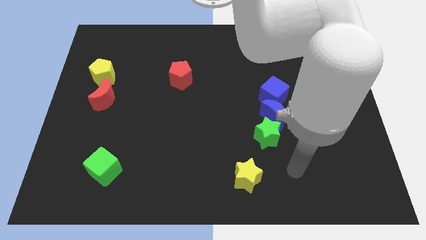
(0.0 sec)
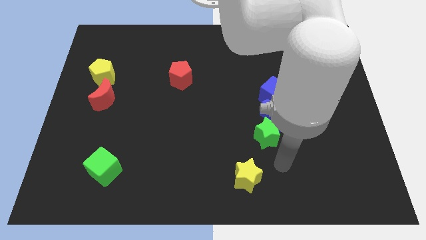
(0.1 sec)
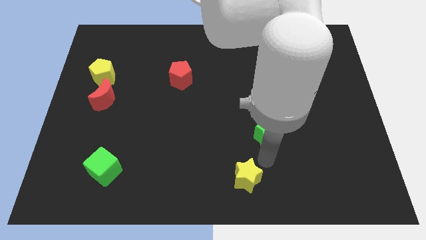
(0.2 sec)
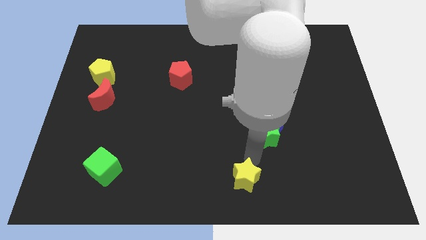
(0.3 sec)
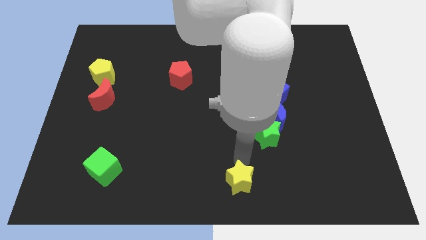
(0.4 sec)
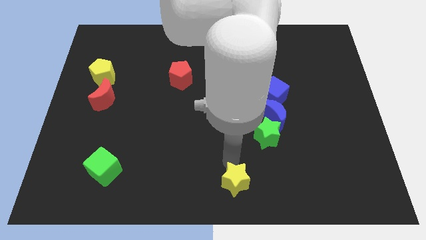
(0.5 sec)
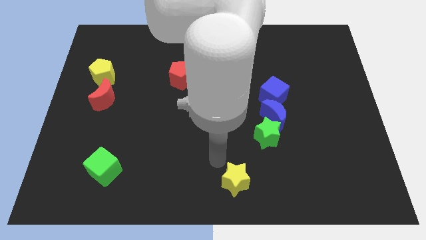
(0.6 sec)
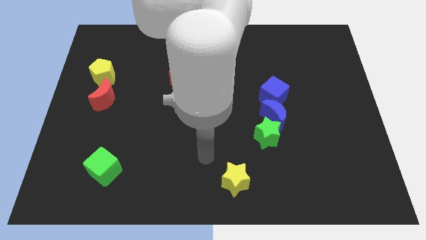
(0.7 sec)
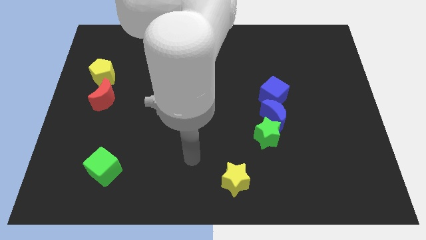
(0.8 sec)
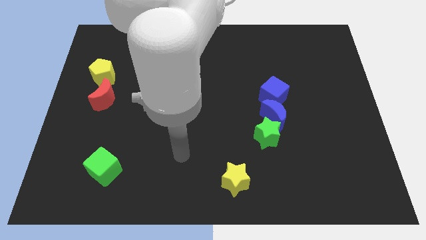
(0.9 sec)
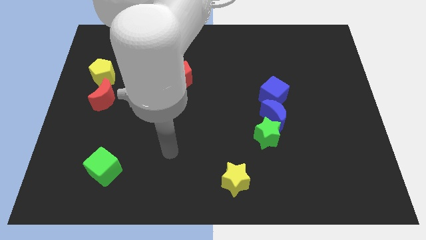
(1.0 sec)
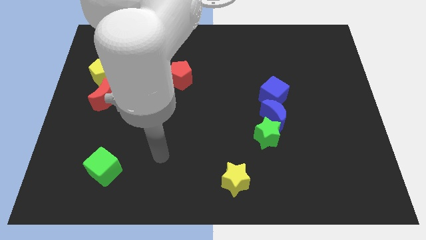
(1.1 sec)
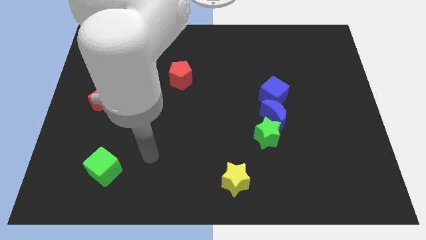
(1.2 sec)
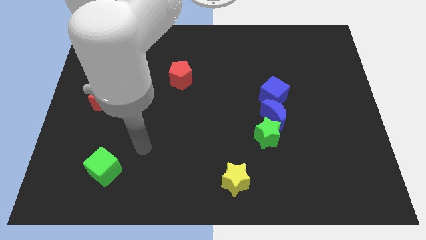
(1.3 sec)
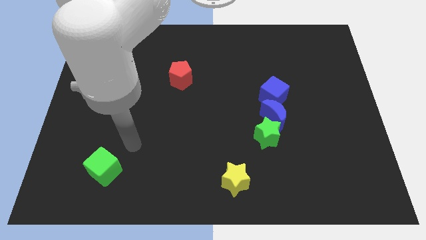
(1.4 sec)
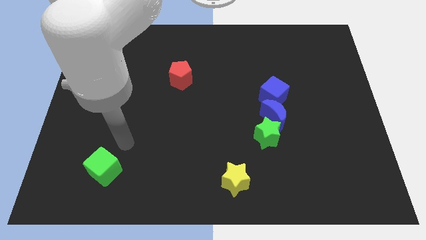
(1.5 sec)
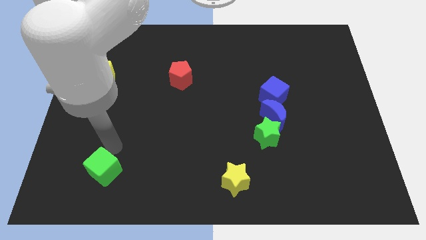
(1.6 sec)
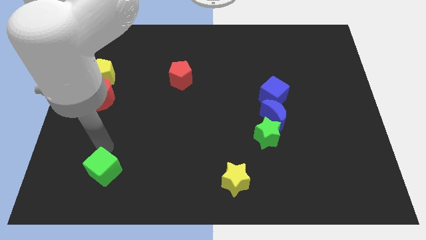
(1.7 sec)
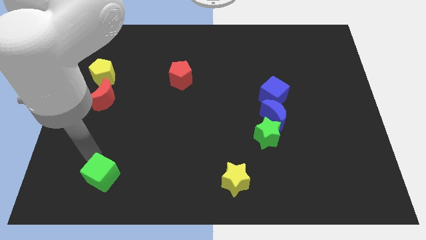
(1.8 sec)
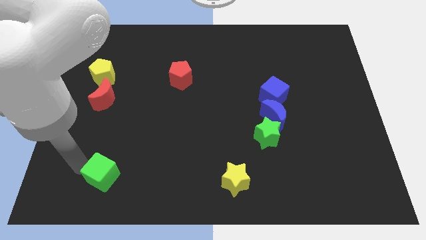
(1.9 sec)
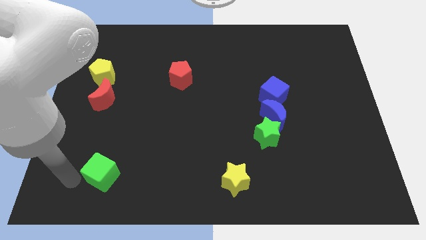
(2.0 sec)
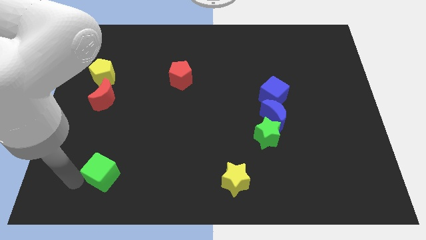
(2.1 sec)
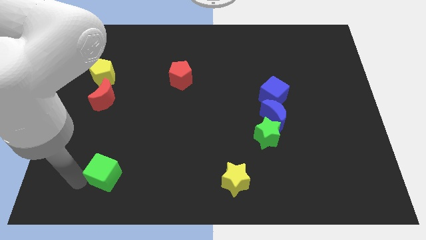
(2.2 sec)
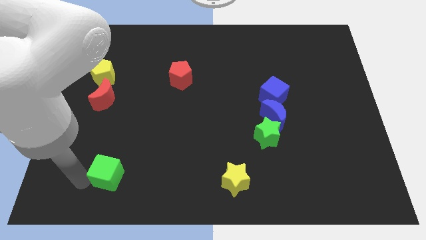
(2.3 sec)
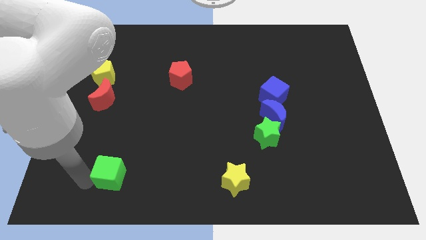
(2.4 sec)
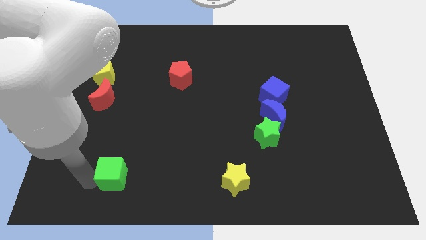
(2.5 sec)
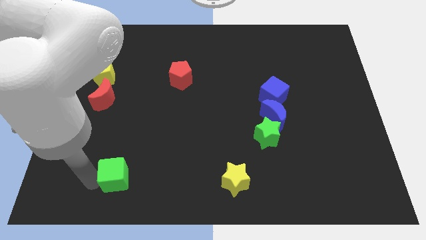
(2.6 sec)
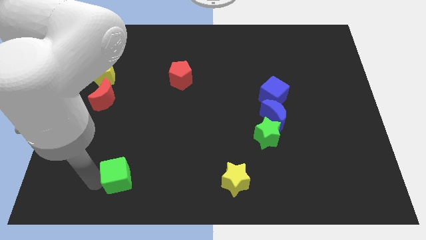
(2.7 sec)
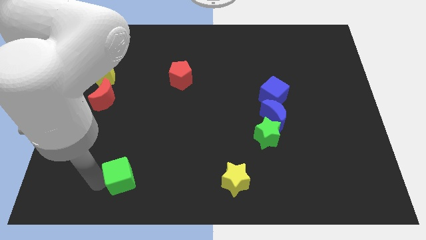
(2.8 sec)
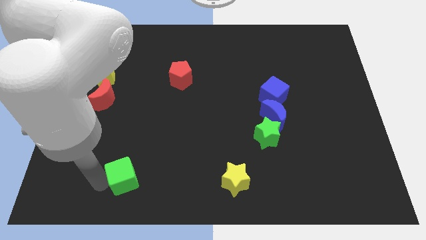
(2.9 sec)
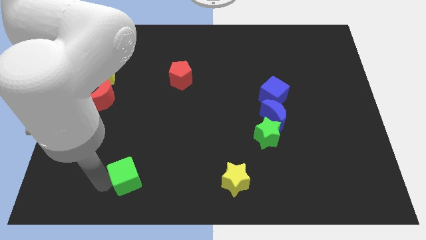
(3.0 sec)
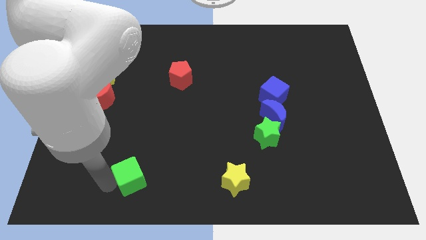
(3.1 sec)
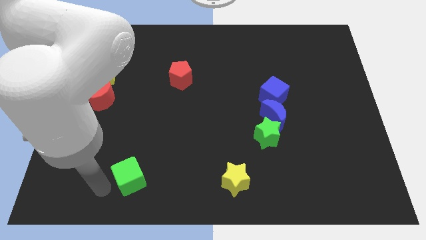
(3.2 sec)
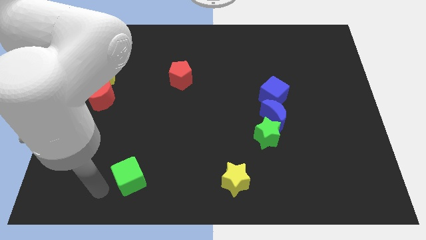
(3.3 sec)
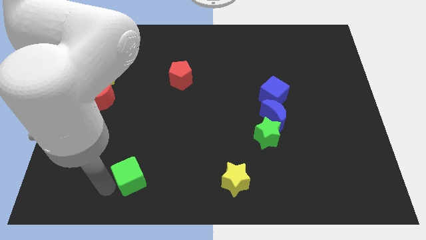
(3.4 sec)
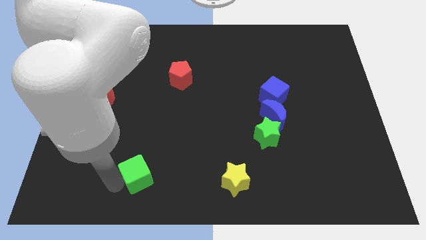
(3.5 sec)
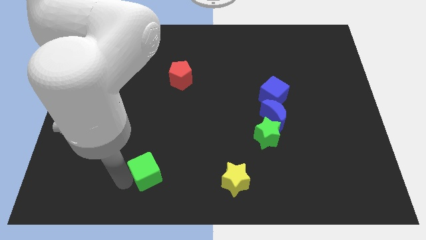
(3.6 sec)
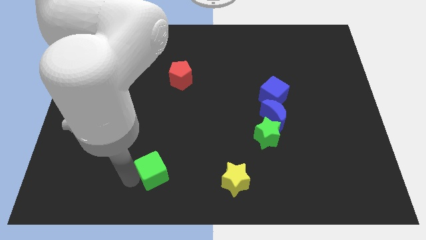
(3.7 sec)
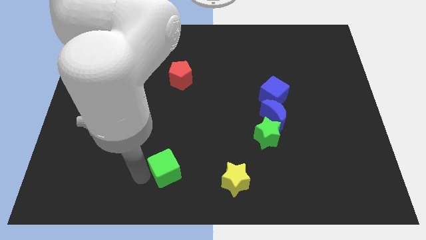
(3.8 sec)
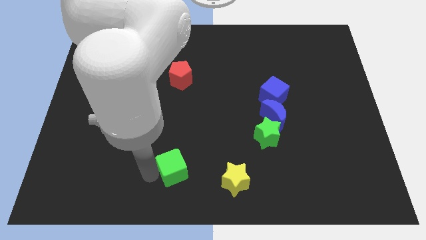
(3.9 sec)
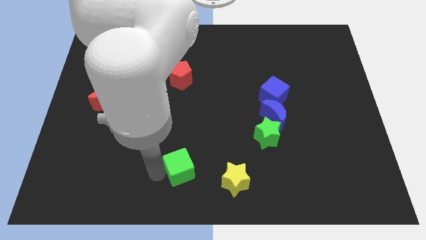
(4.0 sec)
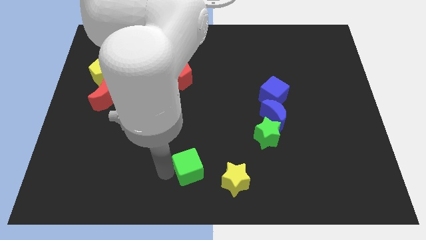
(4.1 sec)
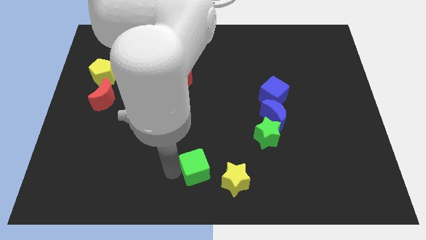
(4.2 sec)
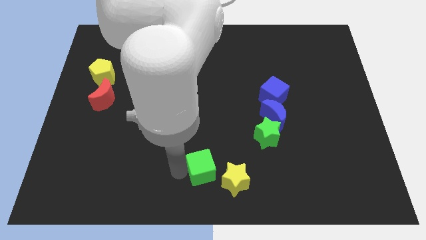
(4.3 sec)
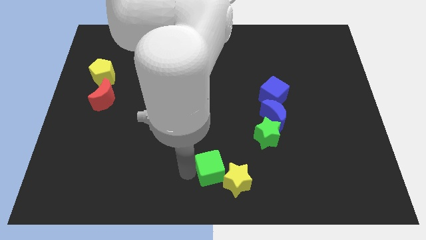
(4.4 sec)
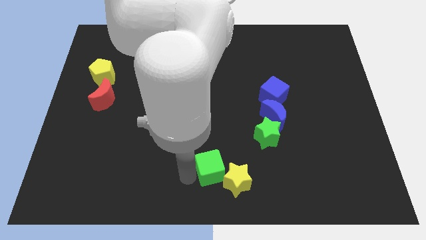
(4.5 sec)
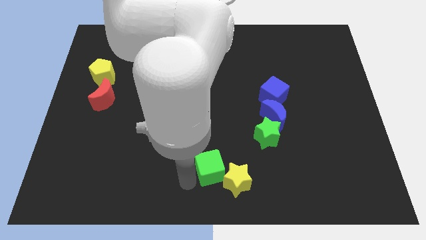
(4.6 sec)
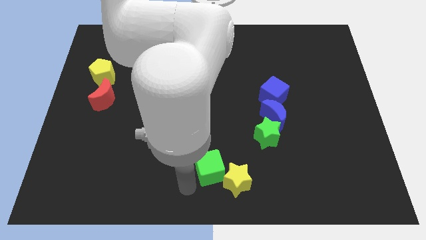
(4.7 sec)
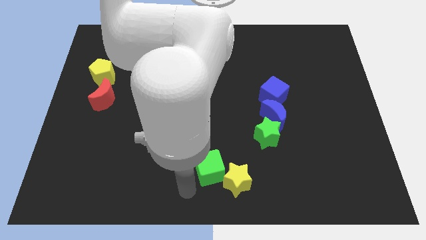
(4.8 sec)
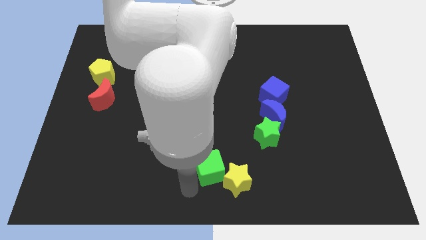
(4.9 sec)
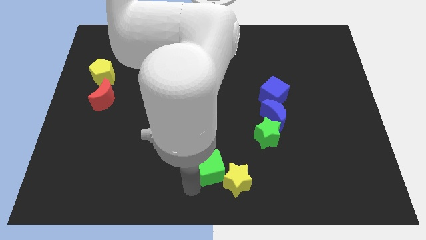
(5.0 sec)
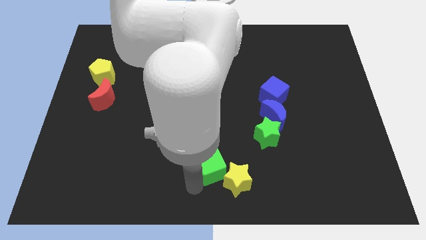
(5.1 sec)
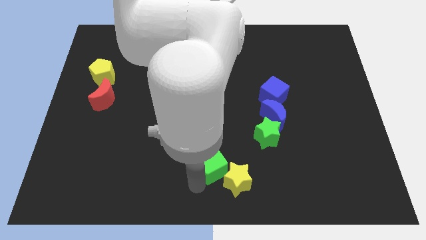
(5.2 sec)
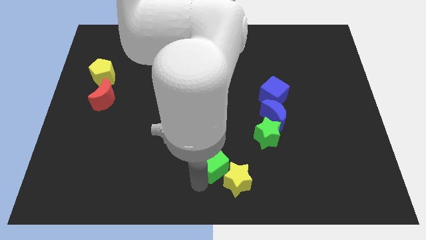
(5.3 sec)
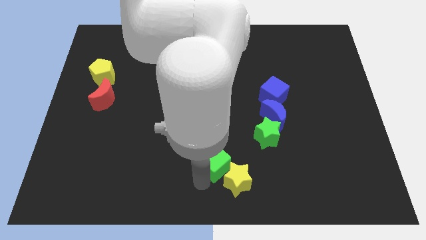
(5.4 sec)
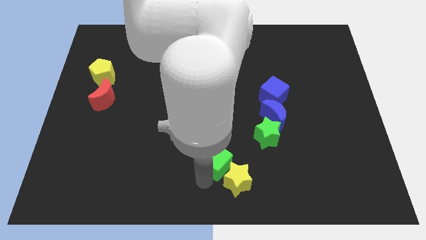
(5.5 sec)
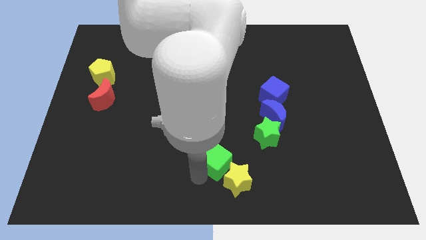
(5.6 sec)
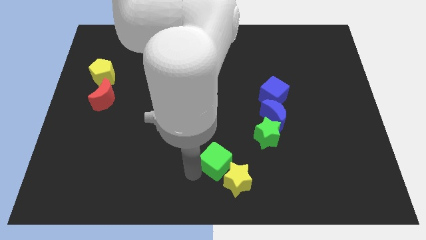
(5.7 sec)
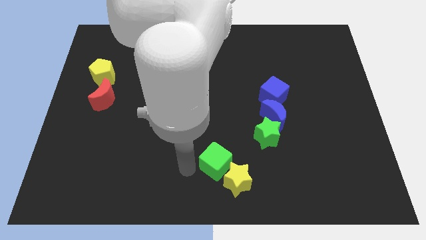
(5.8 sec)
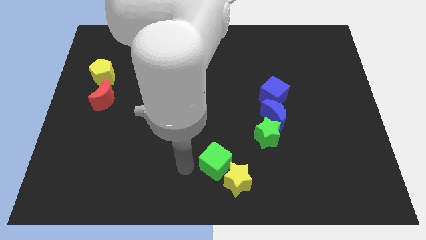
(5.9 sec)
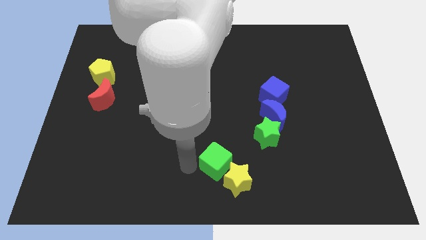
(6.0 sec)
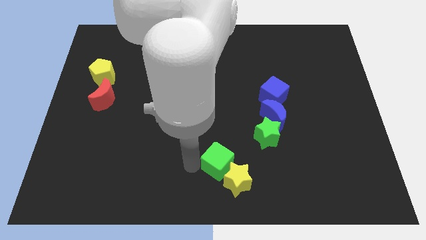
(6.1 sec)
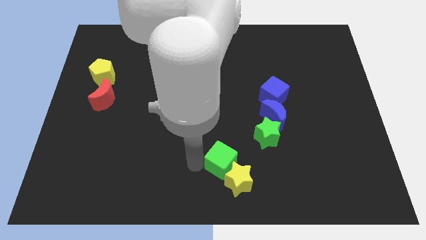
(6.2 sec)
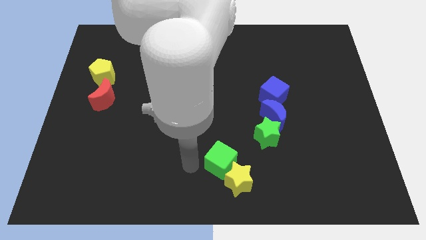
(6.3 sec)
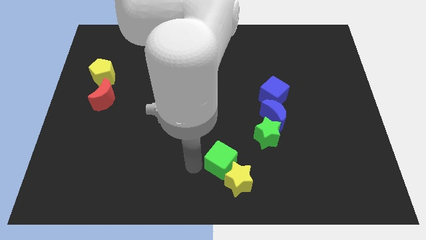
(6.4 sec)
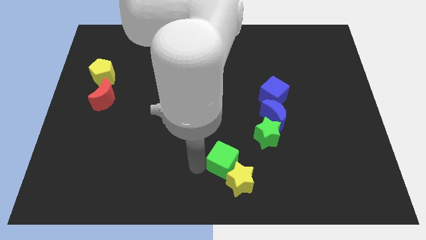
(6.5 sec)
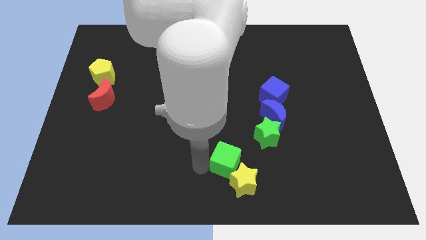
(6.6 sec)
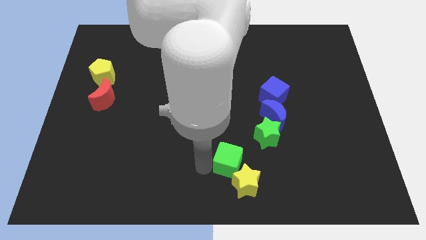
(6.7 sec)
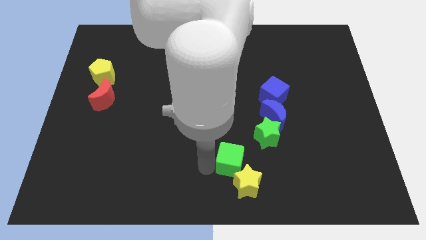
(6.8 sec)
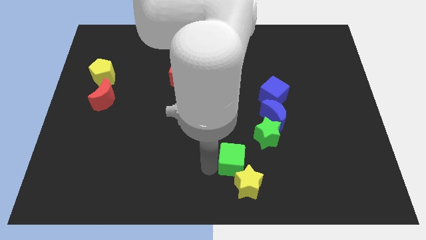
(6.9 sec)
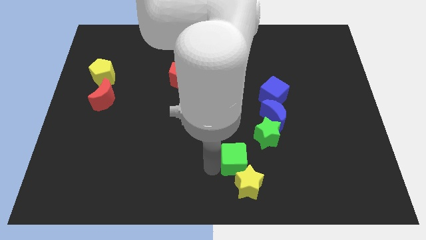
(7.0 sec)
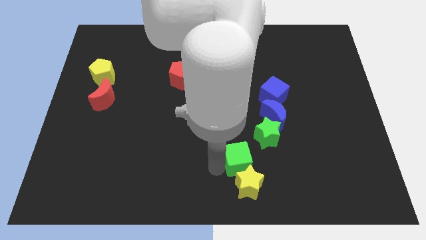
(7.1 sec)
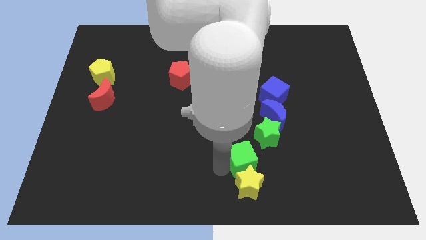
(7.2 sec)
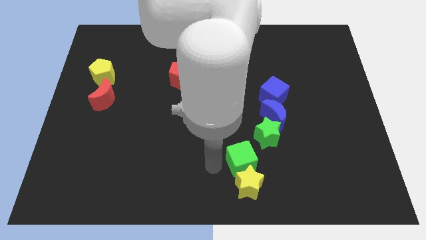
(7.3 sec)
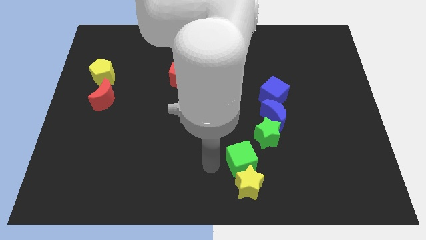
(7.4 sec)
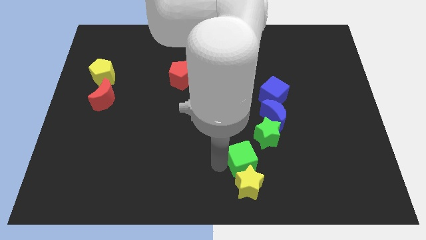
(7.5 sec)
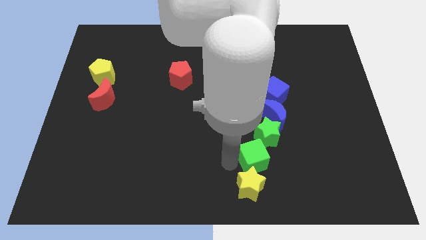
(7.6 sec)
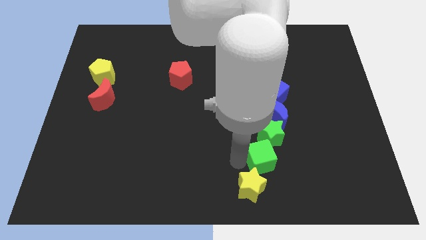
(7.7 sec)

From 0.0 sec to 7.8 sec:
move the green cube to the bottom of the blue moon

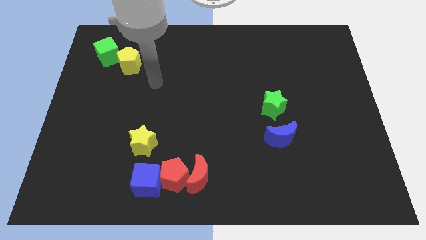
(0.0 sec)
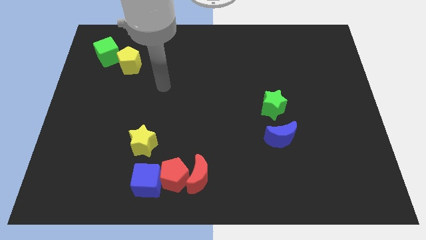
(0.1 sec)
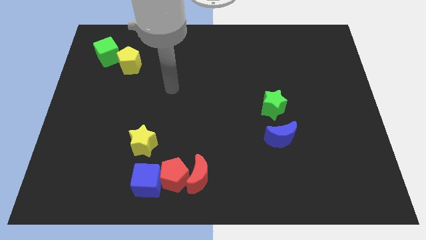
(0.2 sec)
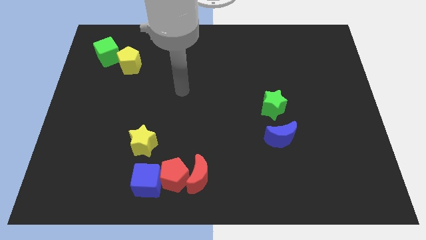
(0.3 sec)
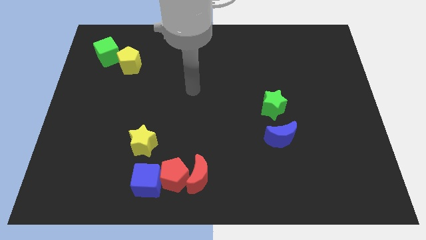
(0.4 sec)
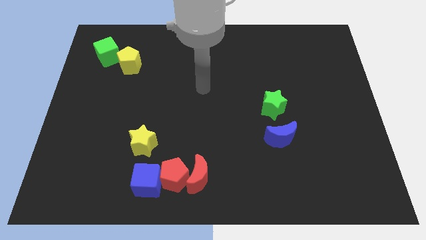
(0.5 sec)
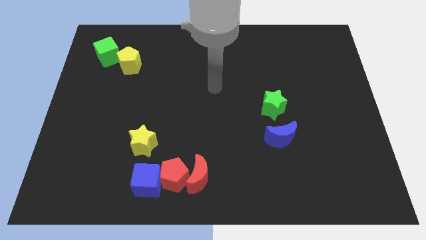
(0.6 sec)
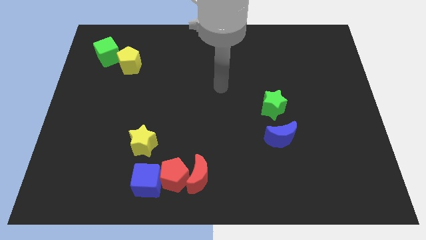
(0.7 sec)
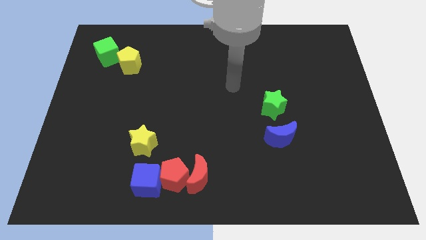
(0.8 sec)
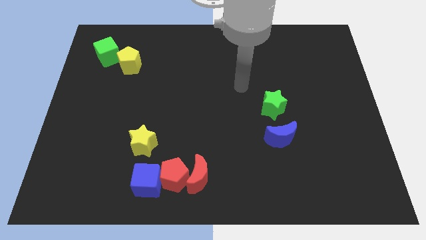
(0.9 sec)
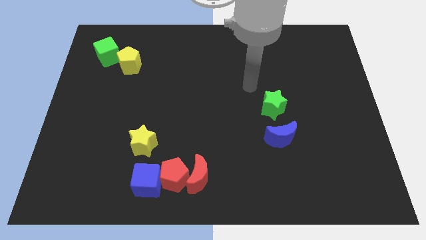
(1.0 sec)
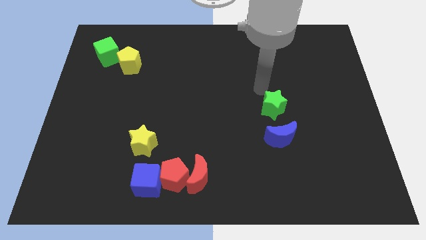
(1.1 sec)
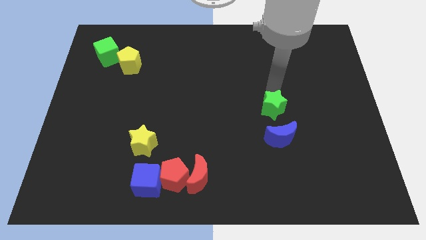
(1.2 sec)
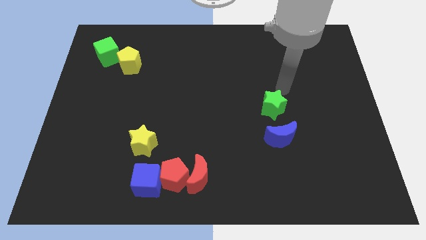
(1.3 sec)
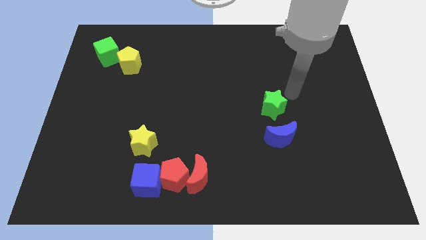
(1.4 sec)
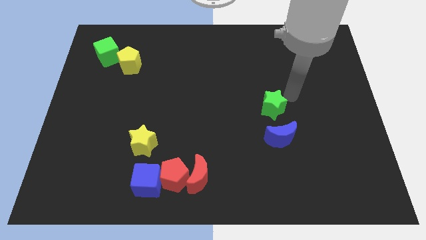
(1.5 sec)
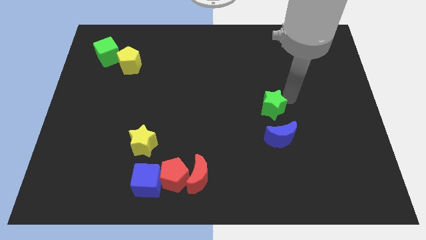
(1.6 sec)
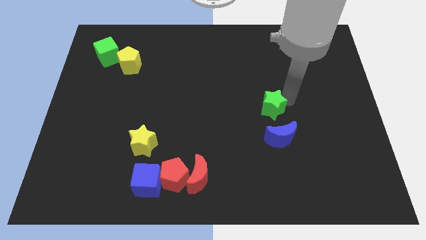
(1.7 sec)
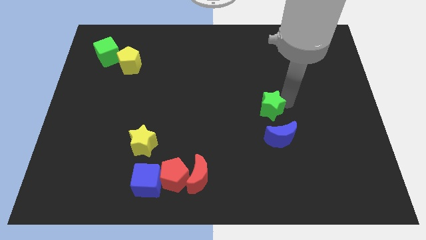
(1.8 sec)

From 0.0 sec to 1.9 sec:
put the green star to the top left of the blue moon
